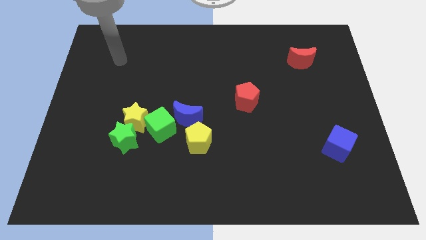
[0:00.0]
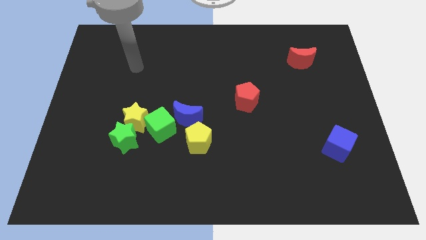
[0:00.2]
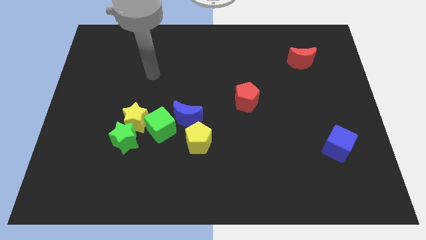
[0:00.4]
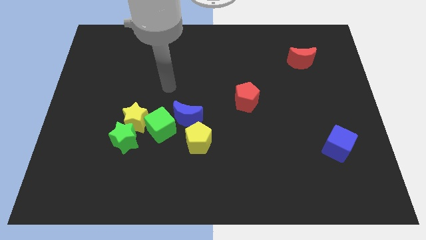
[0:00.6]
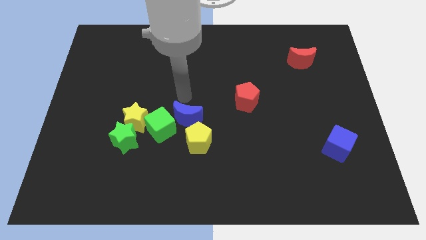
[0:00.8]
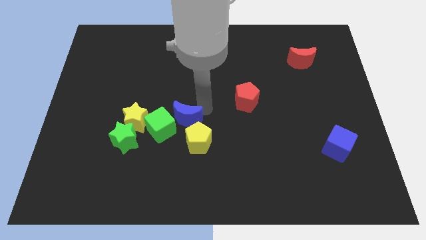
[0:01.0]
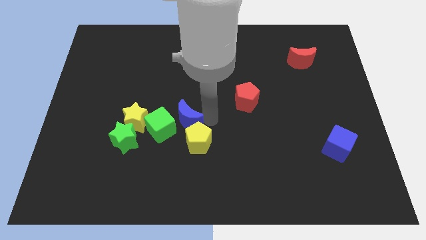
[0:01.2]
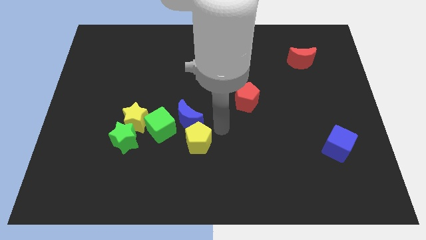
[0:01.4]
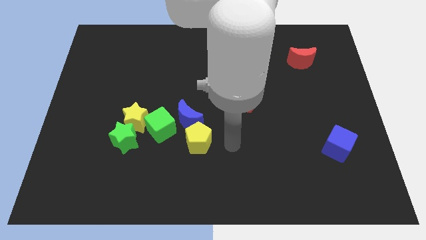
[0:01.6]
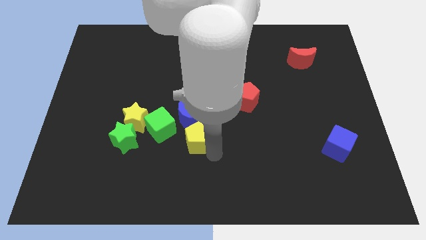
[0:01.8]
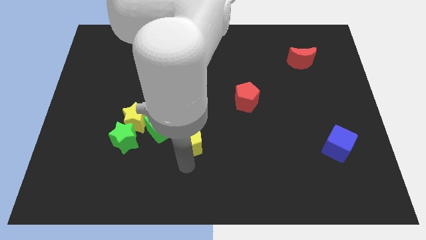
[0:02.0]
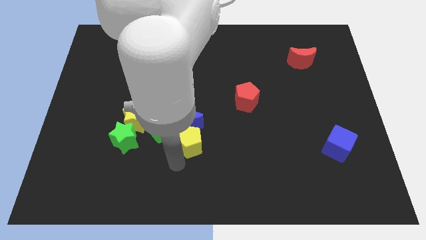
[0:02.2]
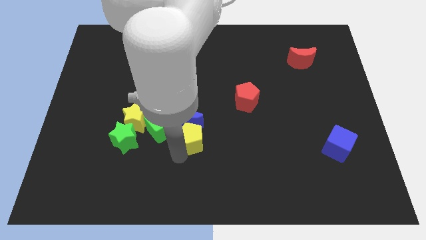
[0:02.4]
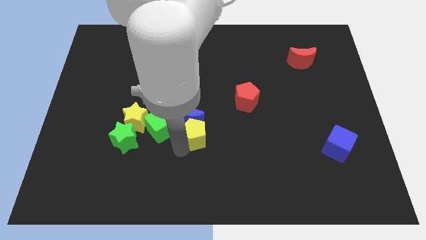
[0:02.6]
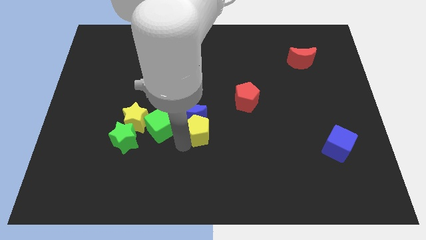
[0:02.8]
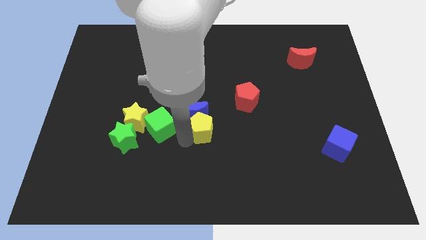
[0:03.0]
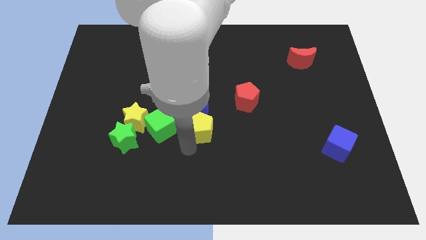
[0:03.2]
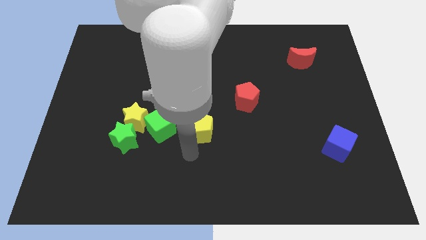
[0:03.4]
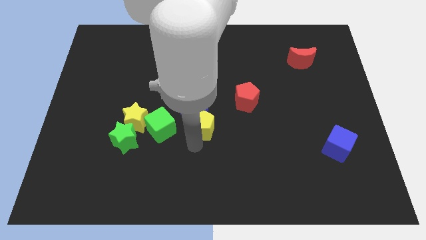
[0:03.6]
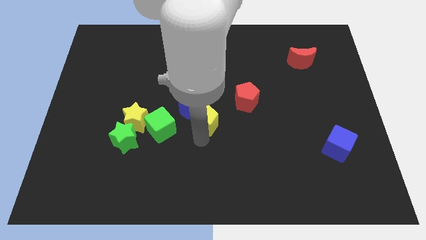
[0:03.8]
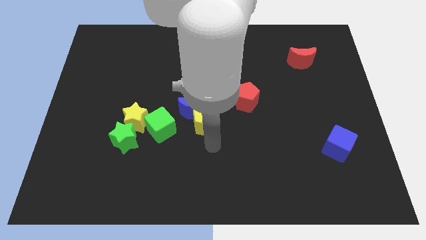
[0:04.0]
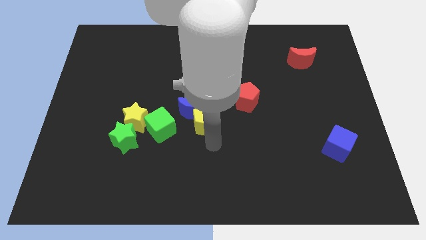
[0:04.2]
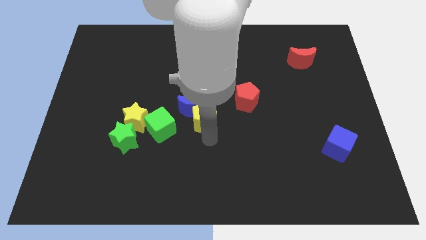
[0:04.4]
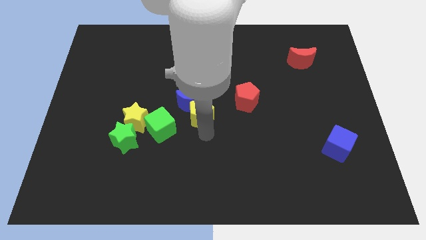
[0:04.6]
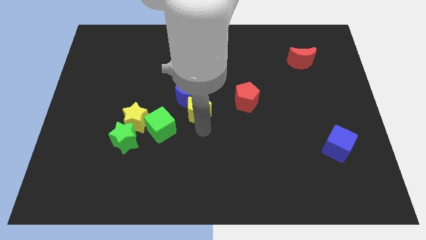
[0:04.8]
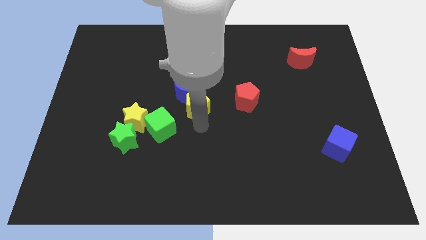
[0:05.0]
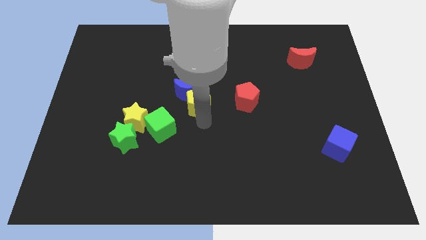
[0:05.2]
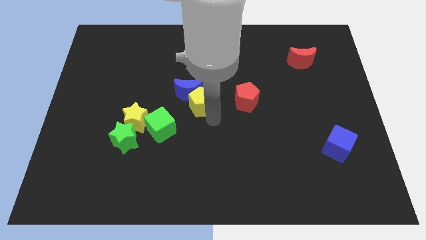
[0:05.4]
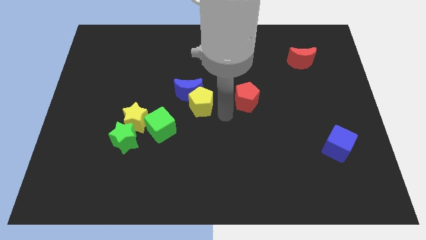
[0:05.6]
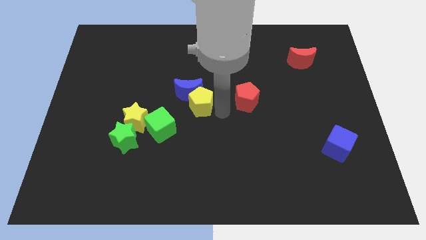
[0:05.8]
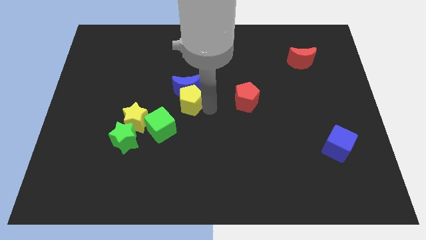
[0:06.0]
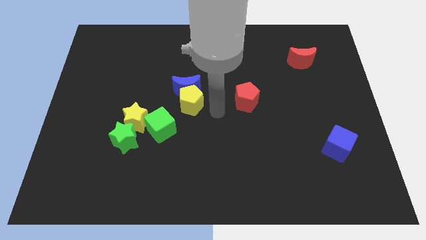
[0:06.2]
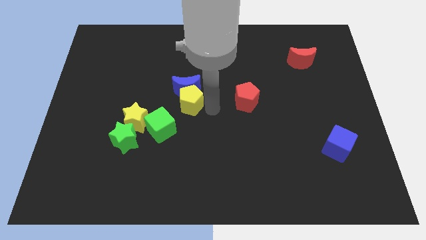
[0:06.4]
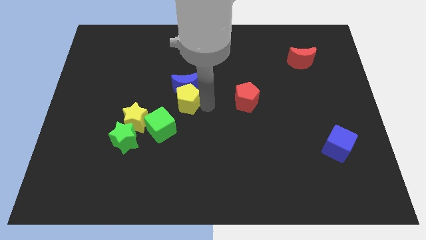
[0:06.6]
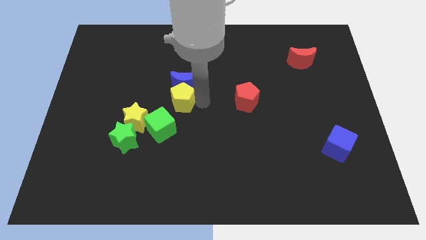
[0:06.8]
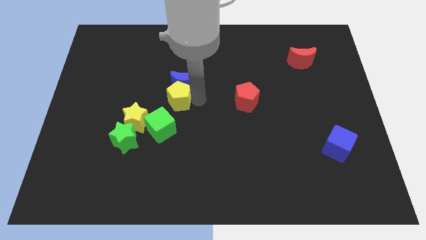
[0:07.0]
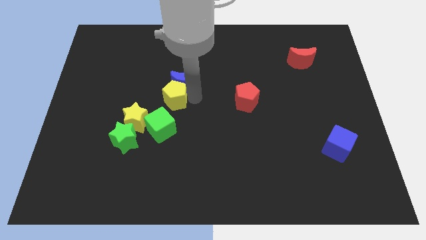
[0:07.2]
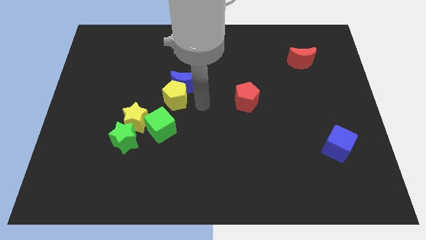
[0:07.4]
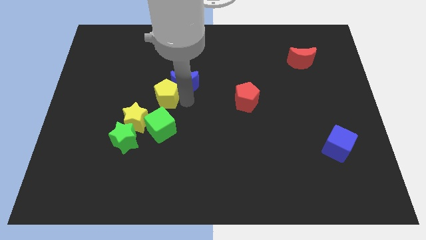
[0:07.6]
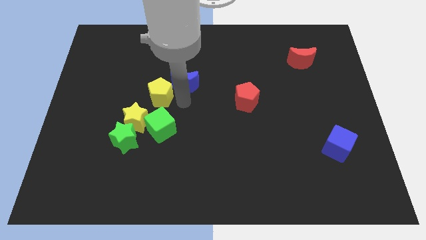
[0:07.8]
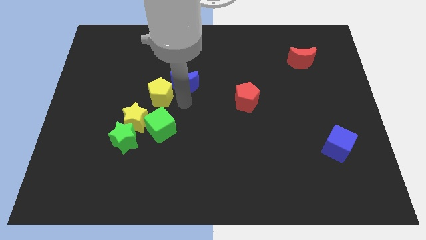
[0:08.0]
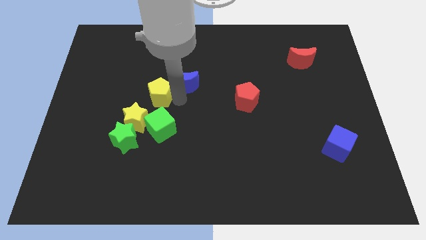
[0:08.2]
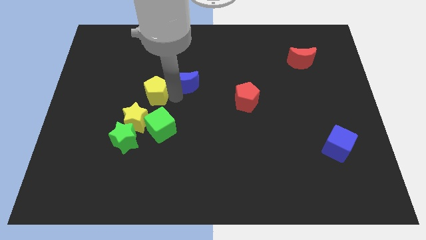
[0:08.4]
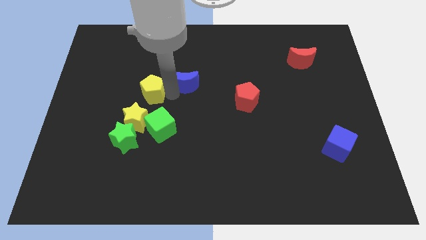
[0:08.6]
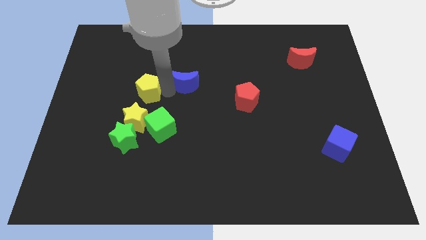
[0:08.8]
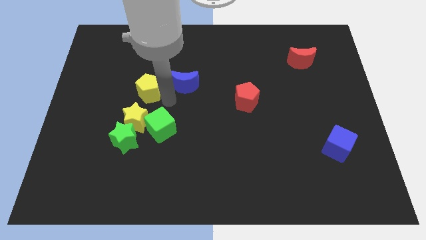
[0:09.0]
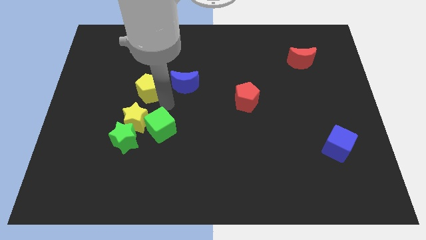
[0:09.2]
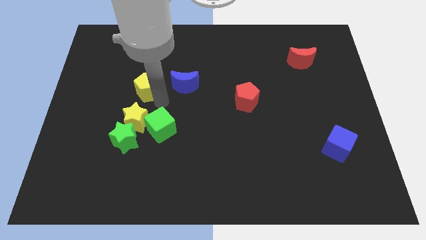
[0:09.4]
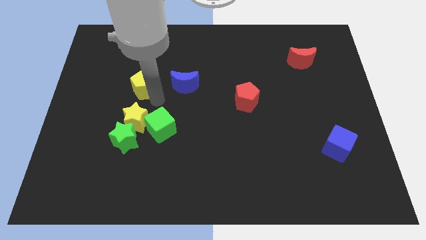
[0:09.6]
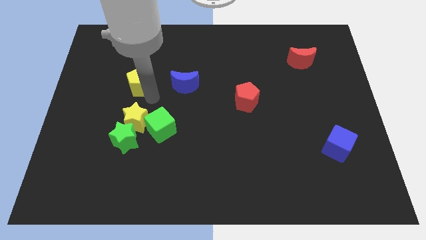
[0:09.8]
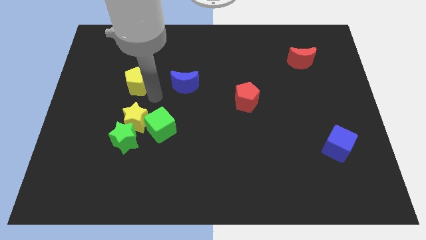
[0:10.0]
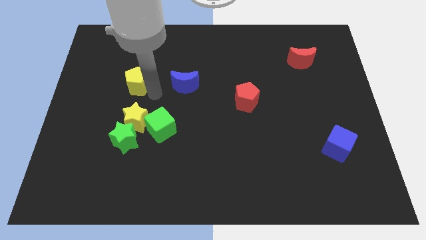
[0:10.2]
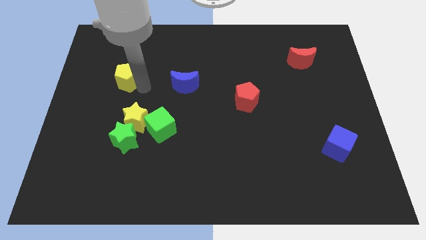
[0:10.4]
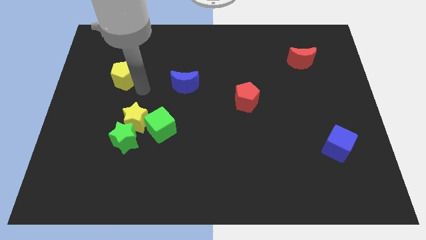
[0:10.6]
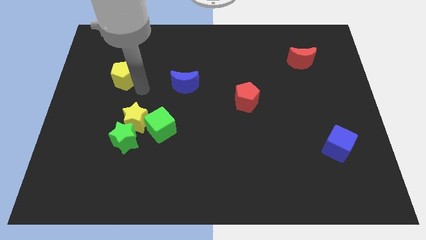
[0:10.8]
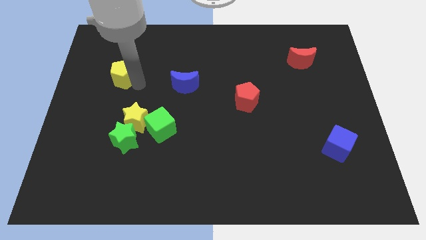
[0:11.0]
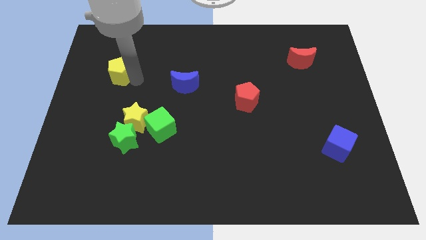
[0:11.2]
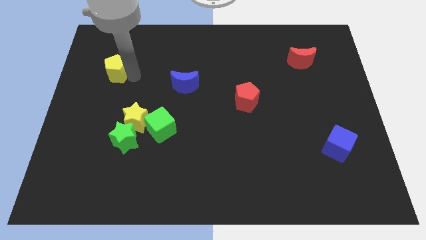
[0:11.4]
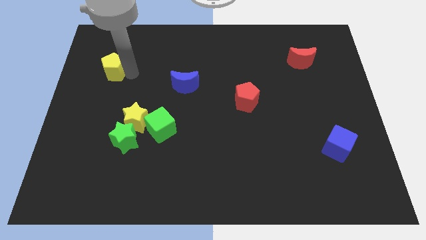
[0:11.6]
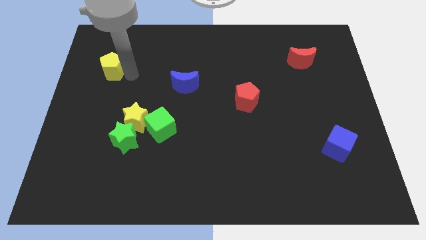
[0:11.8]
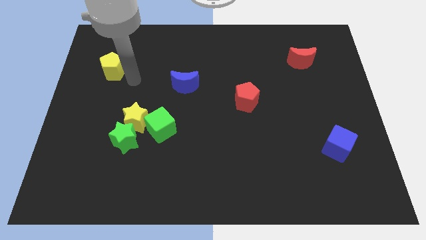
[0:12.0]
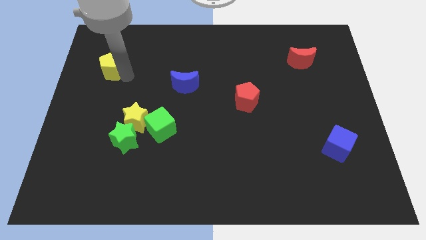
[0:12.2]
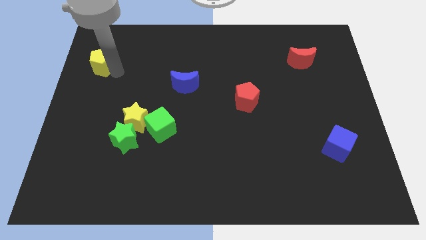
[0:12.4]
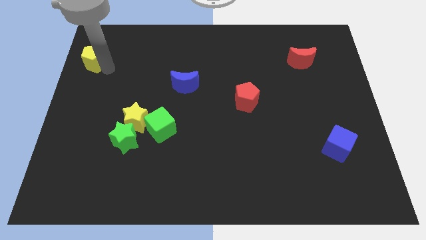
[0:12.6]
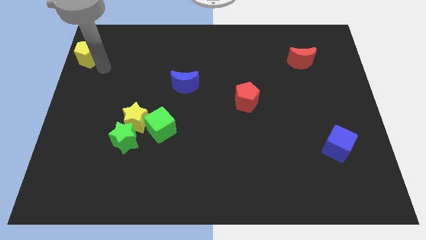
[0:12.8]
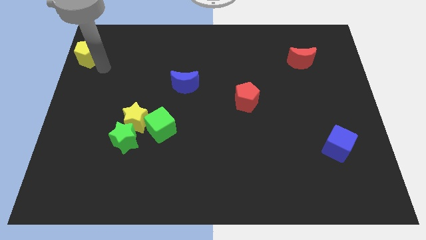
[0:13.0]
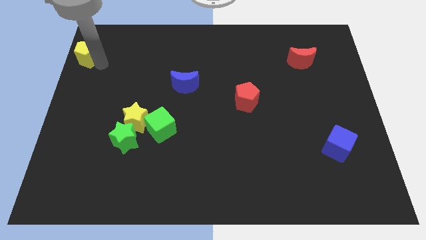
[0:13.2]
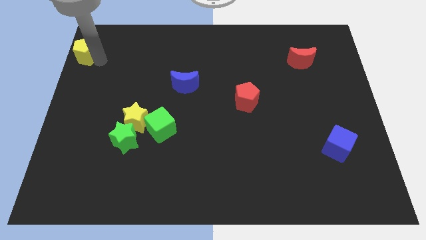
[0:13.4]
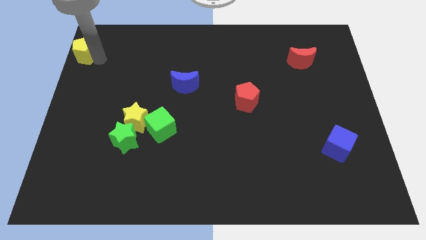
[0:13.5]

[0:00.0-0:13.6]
slide the yellow pentagon to the upper left corner

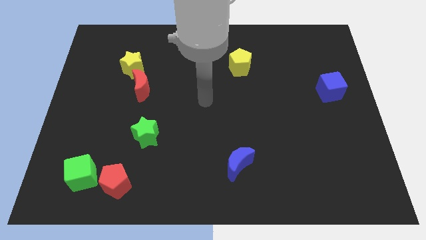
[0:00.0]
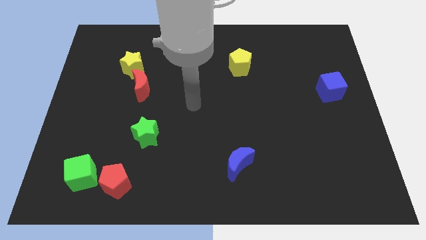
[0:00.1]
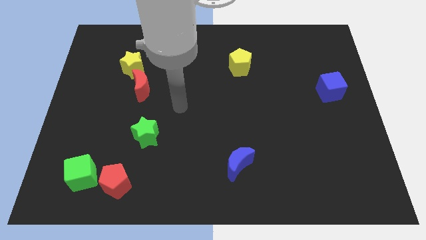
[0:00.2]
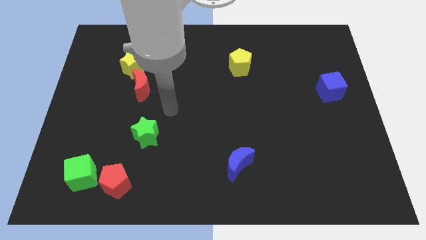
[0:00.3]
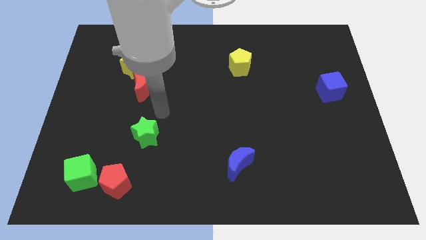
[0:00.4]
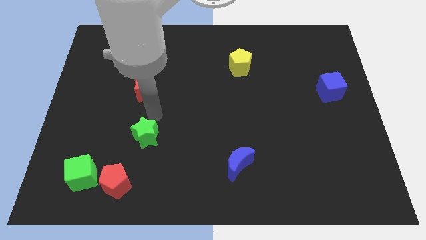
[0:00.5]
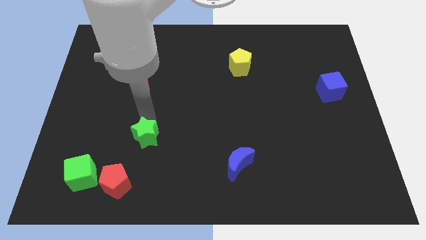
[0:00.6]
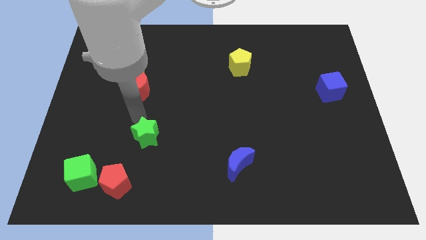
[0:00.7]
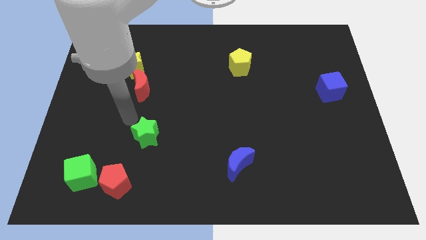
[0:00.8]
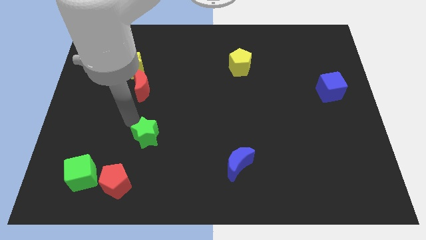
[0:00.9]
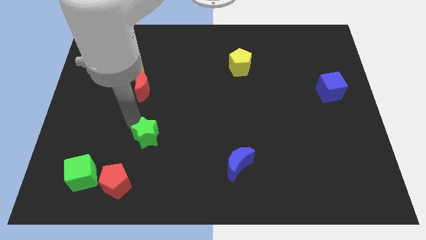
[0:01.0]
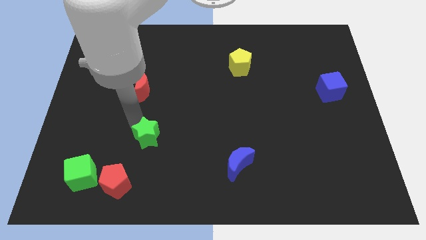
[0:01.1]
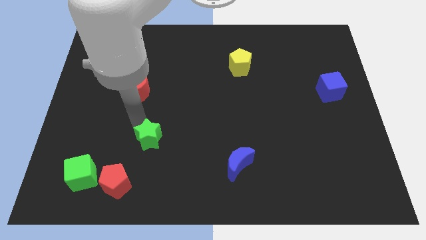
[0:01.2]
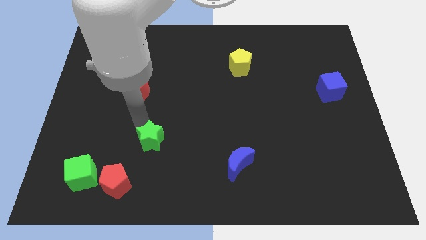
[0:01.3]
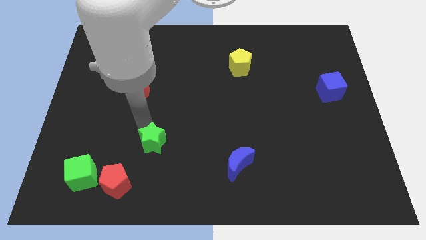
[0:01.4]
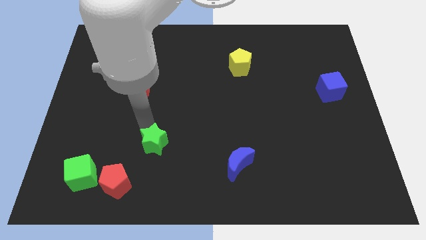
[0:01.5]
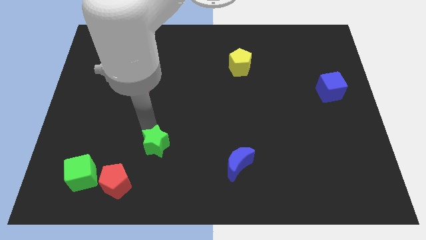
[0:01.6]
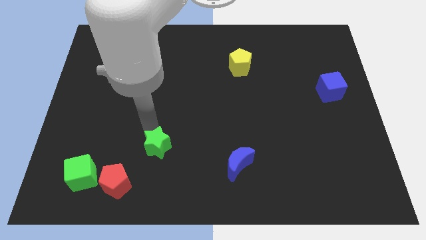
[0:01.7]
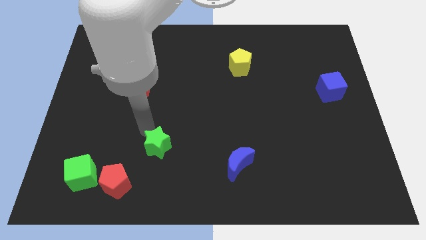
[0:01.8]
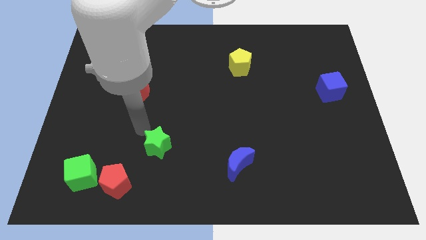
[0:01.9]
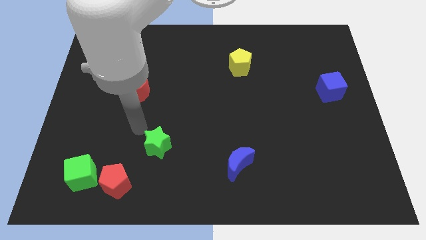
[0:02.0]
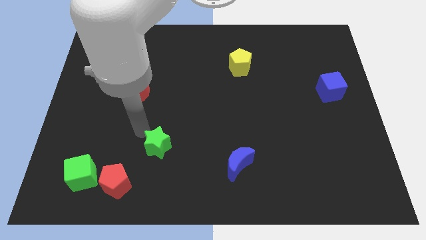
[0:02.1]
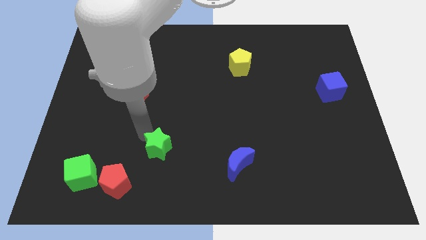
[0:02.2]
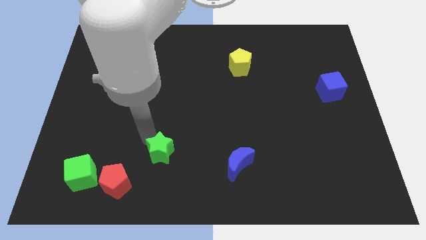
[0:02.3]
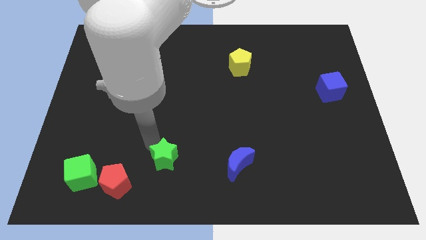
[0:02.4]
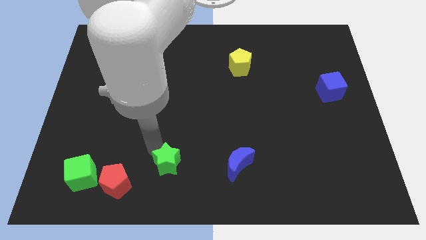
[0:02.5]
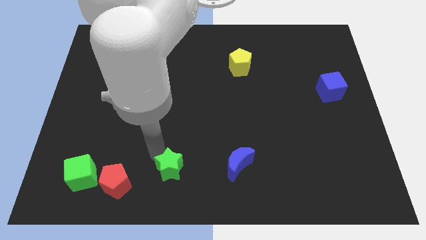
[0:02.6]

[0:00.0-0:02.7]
put the green star to the bottom side
